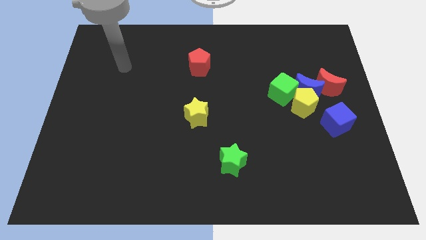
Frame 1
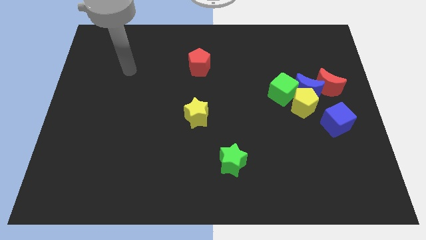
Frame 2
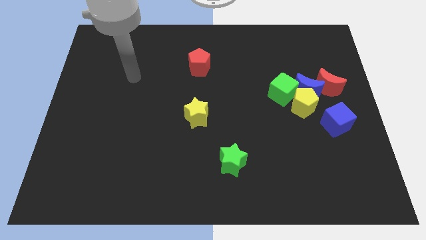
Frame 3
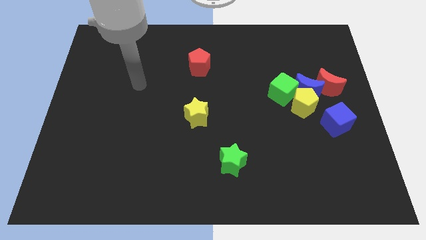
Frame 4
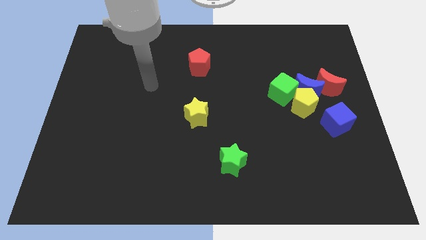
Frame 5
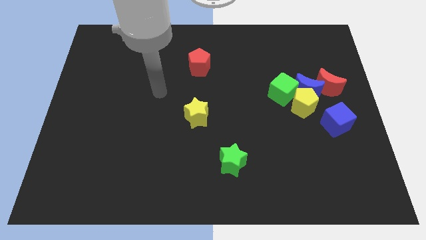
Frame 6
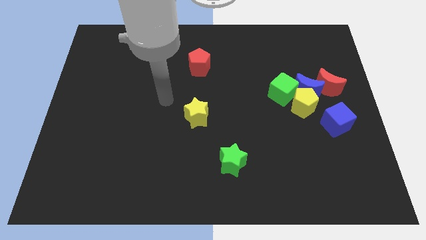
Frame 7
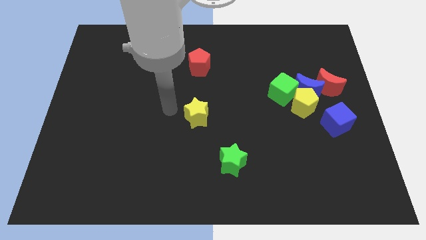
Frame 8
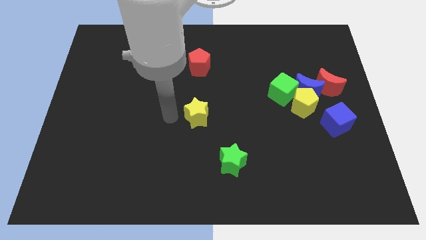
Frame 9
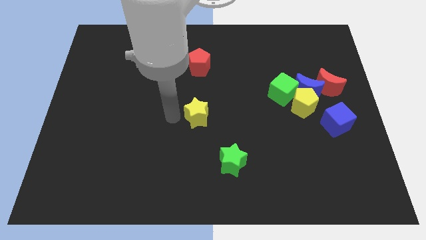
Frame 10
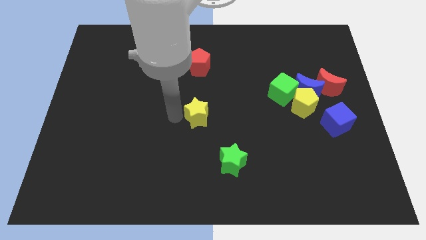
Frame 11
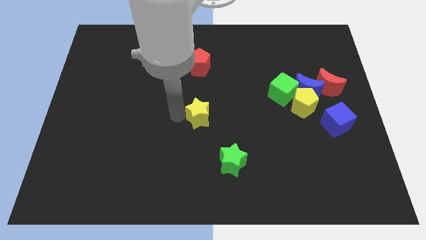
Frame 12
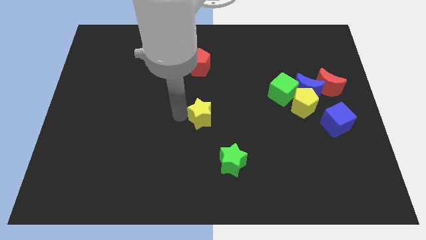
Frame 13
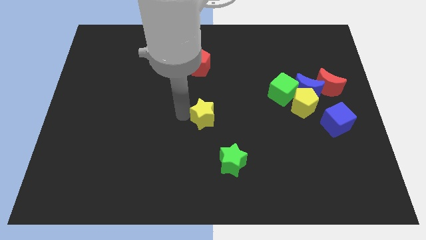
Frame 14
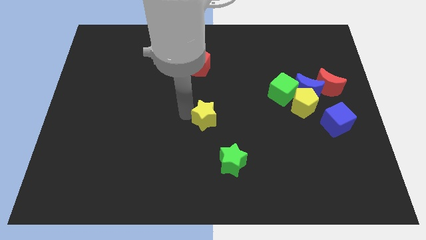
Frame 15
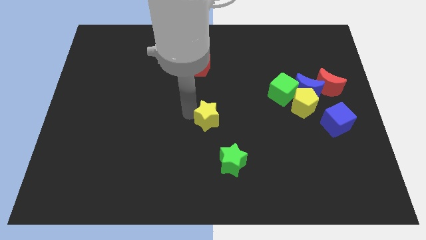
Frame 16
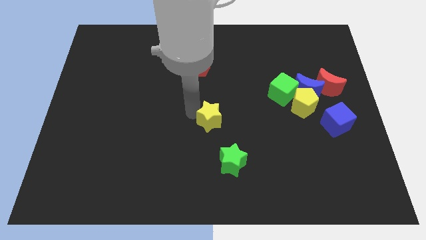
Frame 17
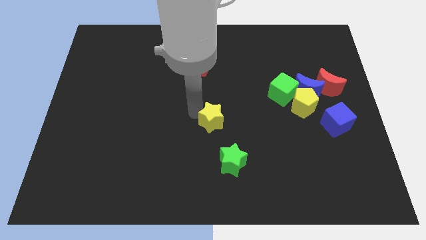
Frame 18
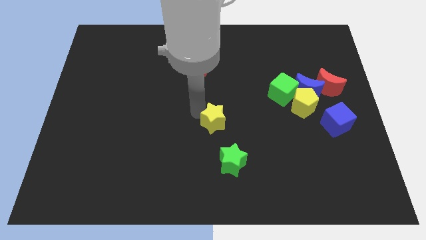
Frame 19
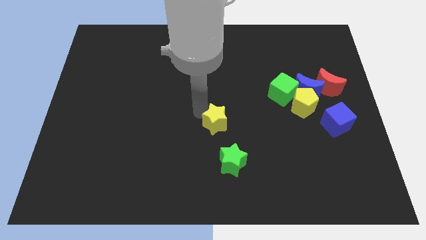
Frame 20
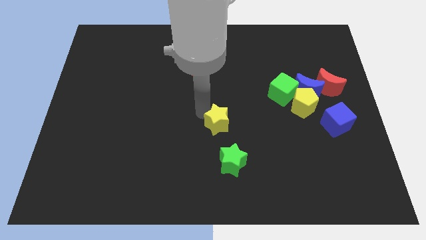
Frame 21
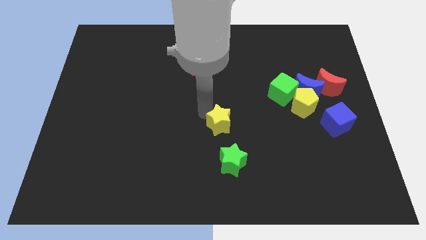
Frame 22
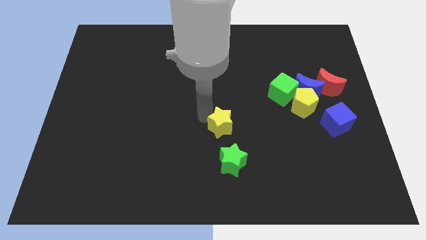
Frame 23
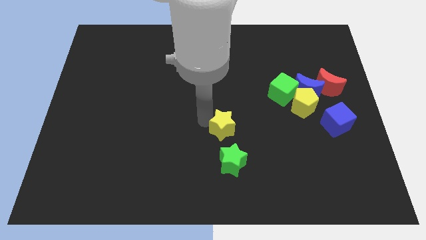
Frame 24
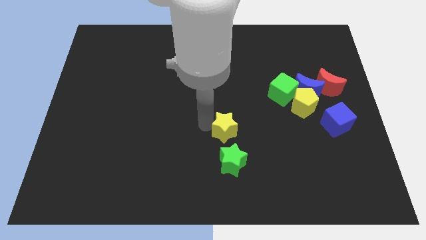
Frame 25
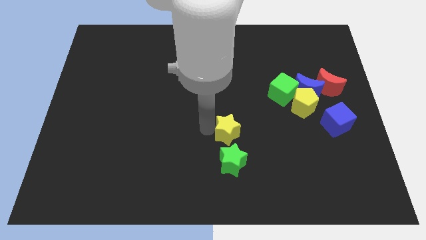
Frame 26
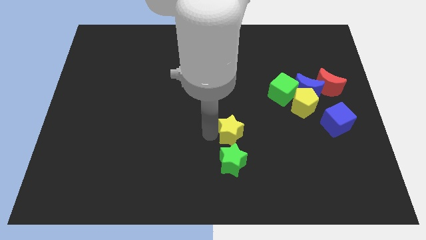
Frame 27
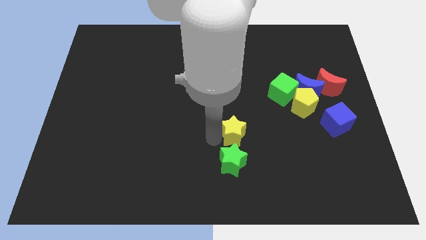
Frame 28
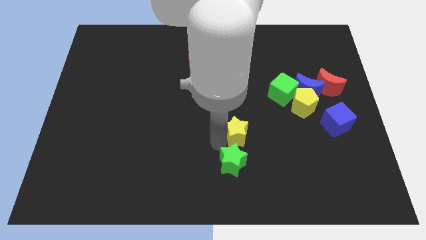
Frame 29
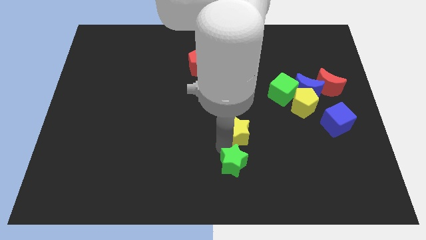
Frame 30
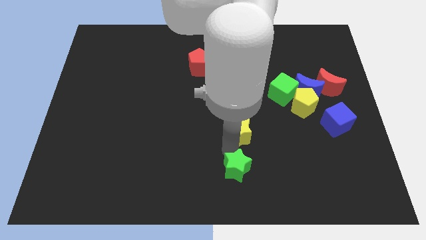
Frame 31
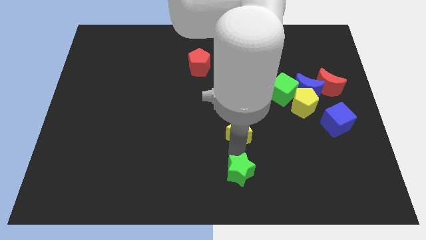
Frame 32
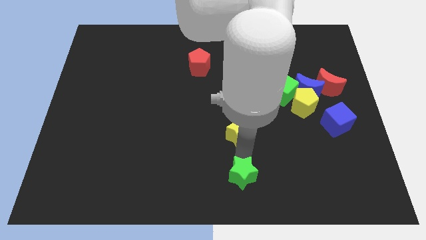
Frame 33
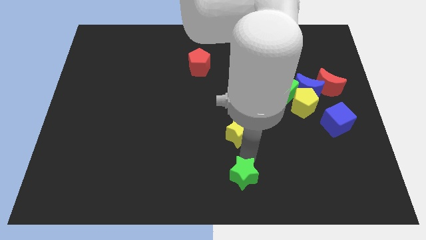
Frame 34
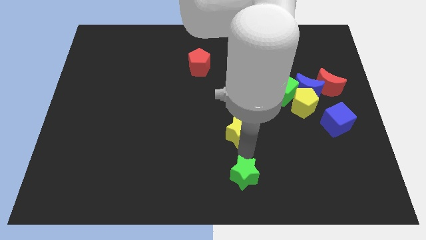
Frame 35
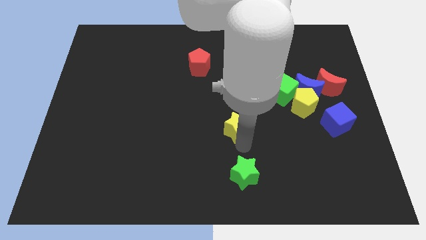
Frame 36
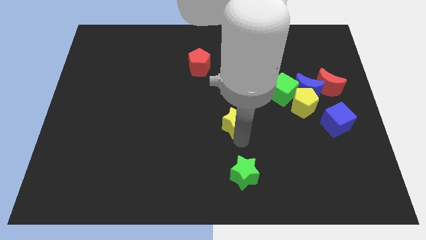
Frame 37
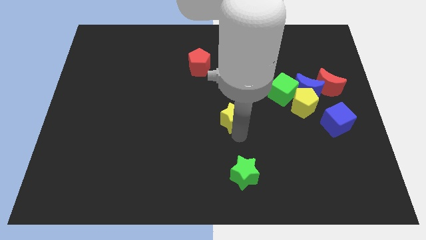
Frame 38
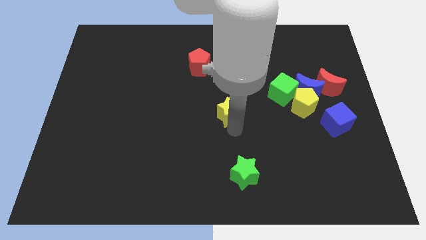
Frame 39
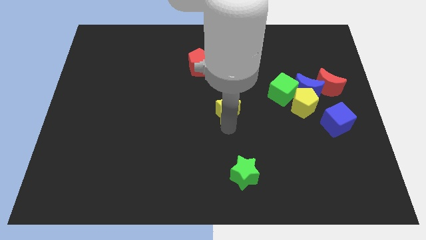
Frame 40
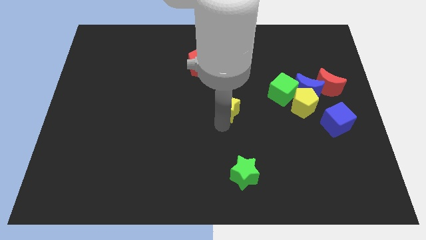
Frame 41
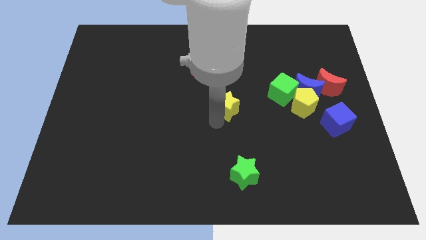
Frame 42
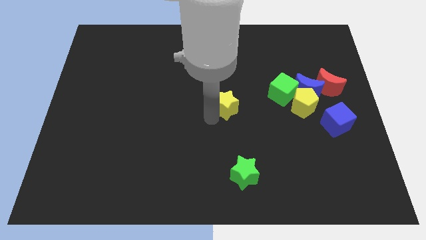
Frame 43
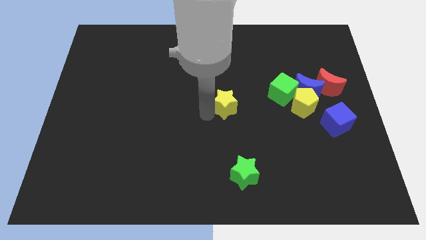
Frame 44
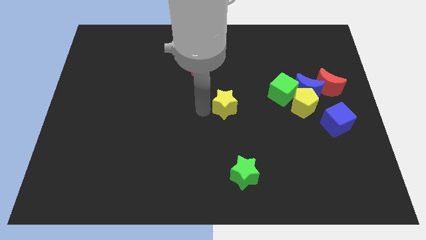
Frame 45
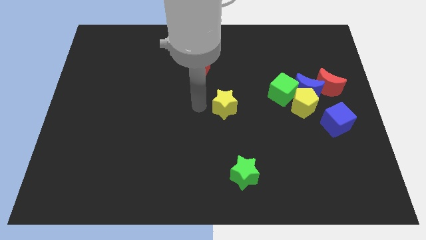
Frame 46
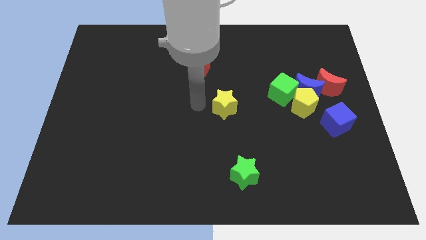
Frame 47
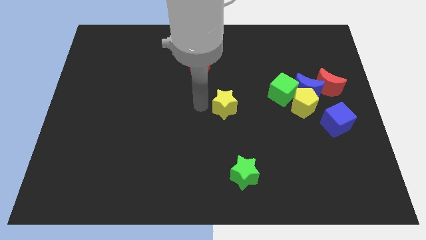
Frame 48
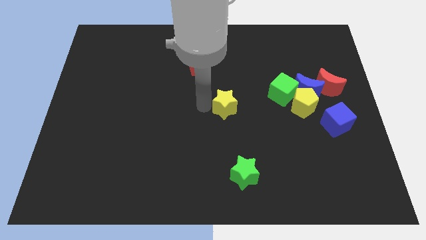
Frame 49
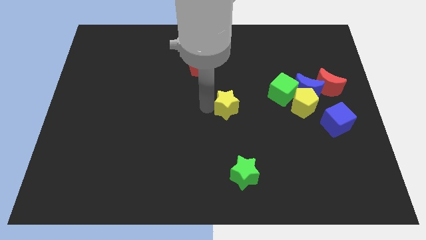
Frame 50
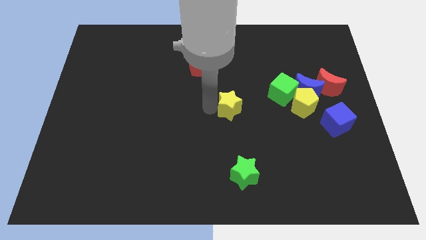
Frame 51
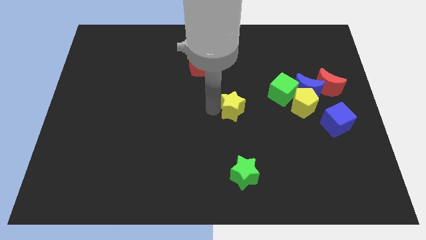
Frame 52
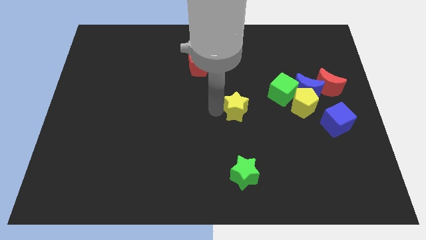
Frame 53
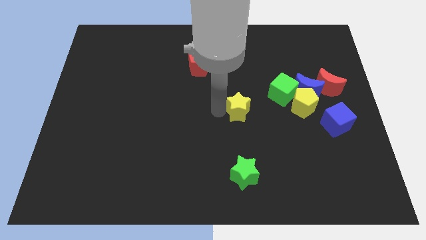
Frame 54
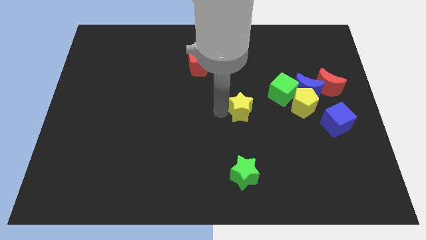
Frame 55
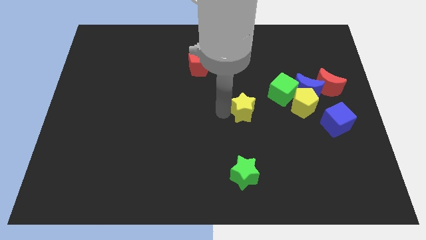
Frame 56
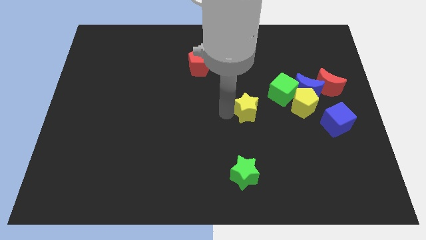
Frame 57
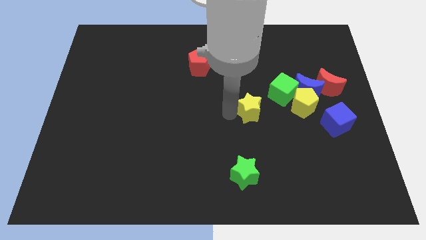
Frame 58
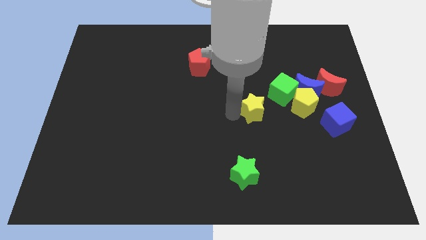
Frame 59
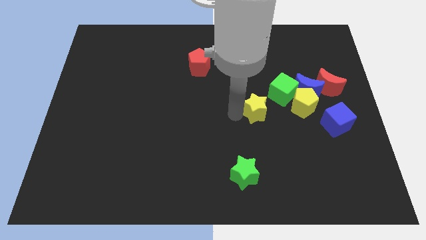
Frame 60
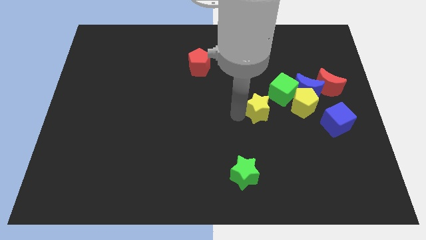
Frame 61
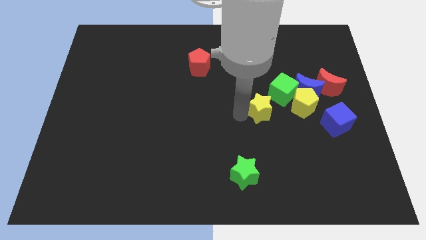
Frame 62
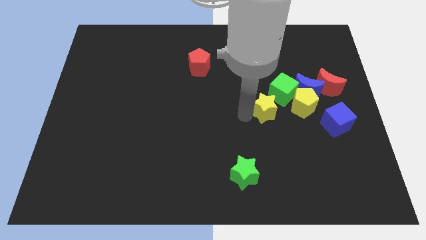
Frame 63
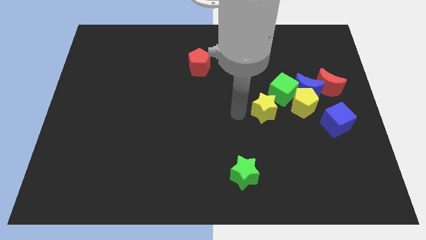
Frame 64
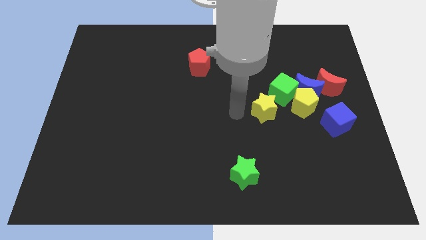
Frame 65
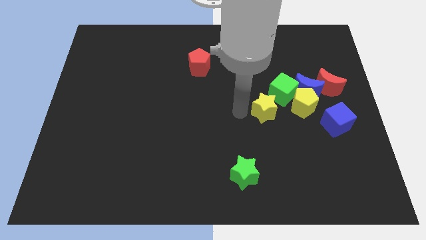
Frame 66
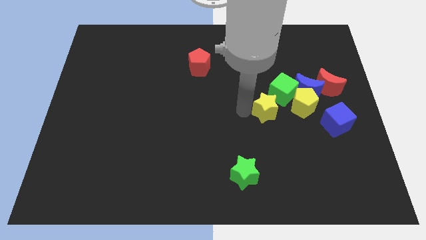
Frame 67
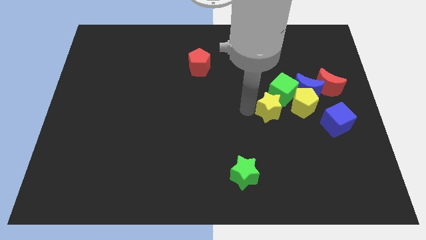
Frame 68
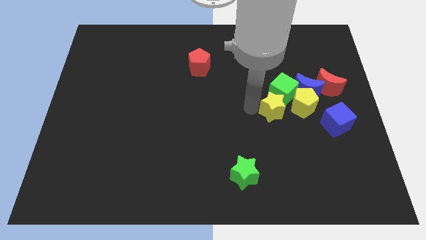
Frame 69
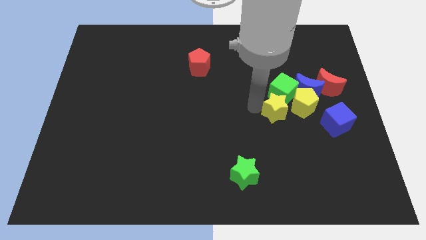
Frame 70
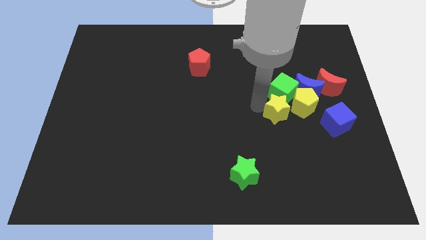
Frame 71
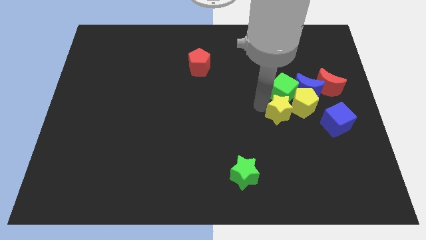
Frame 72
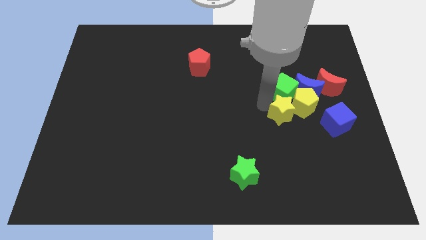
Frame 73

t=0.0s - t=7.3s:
slide the yellow star towards the yellow pentagon

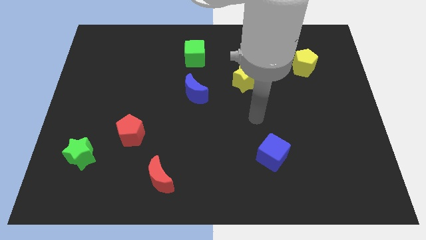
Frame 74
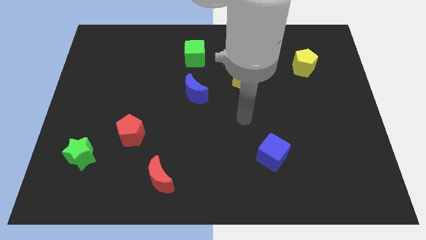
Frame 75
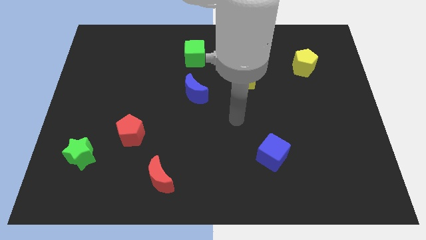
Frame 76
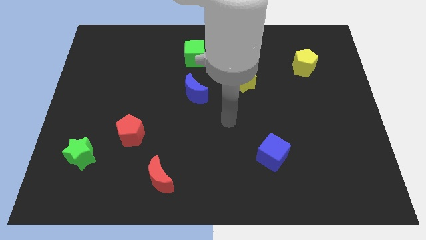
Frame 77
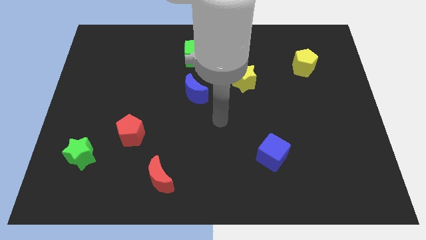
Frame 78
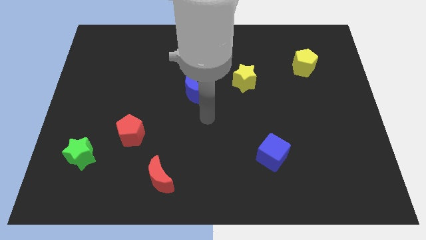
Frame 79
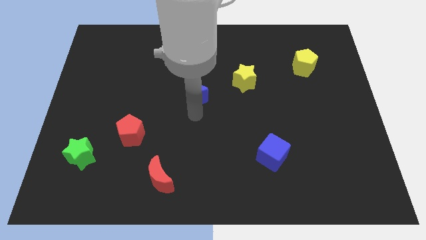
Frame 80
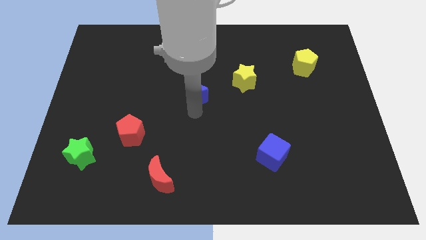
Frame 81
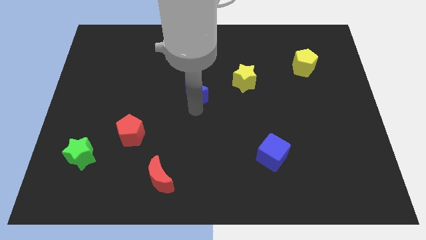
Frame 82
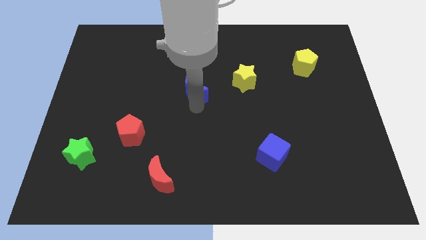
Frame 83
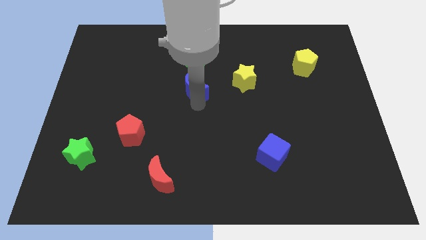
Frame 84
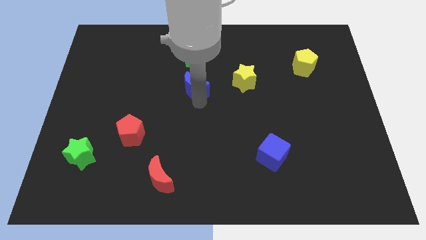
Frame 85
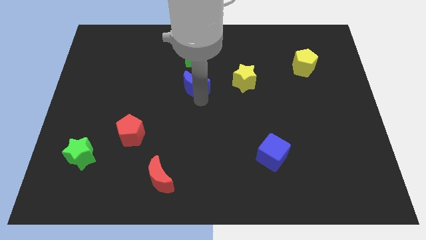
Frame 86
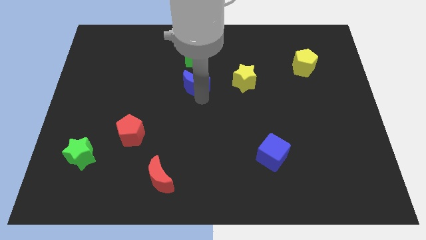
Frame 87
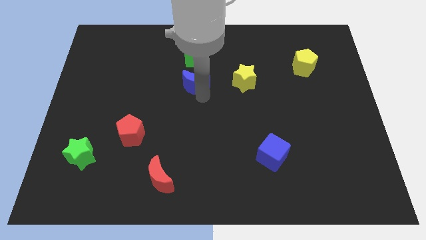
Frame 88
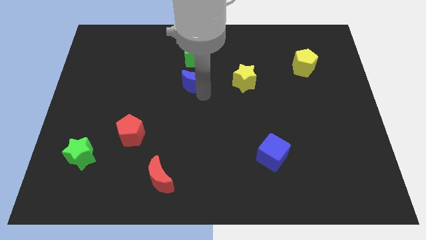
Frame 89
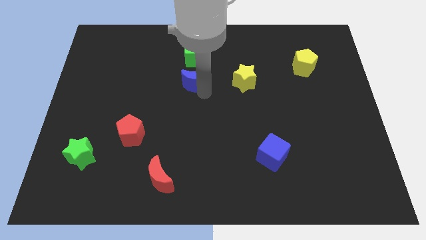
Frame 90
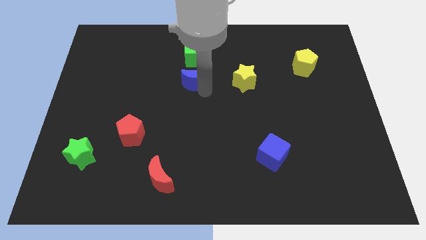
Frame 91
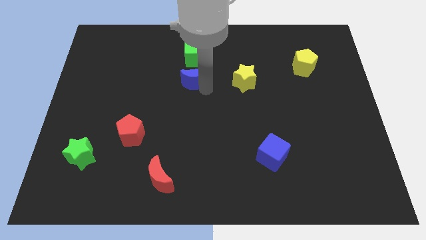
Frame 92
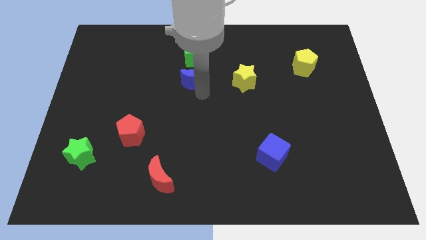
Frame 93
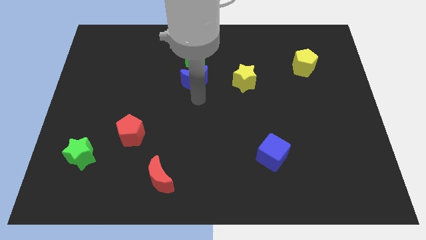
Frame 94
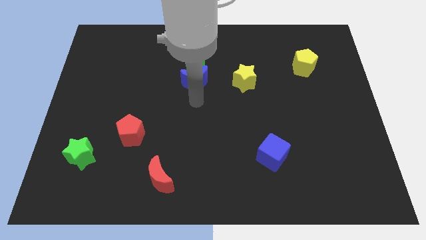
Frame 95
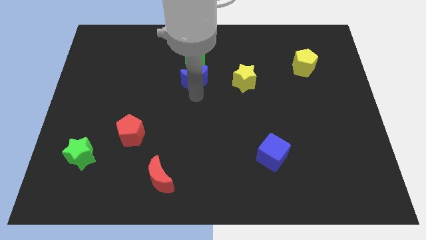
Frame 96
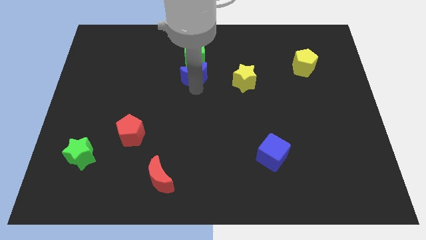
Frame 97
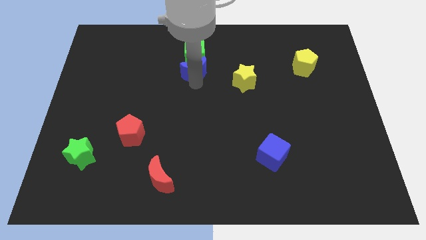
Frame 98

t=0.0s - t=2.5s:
move the blue moon towards the green cube
